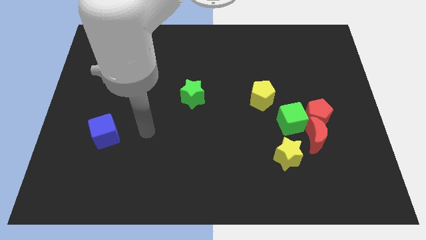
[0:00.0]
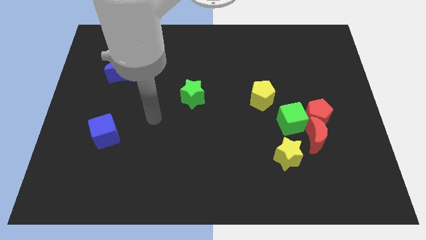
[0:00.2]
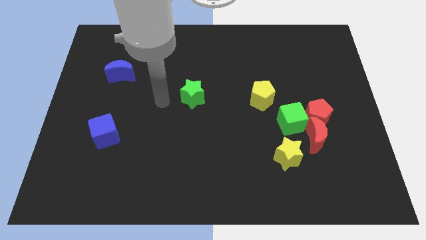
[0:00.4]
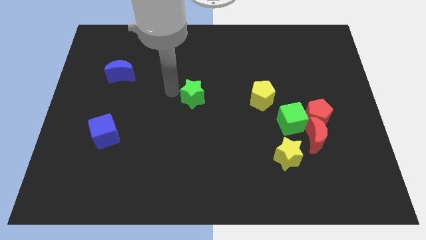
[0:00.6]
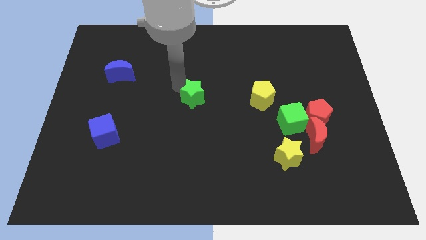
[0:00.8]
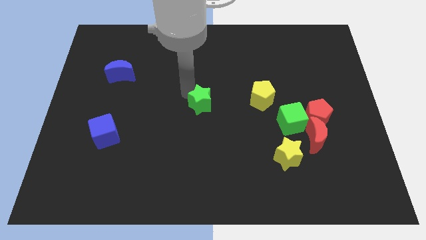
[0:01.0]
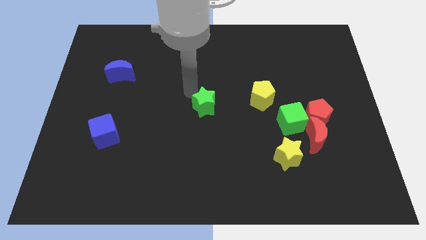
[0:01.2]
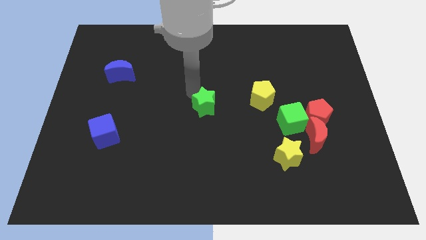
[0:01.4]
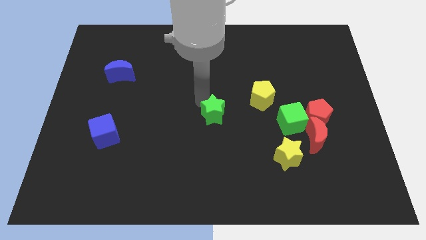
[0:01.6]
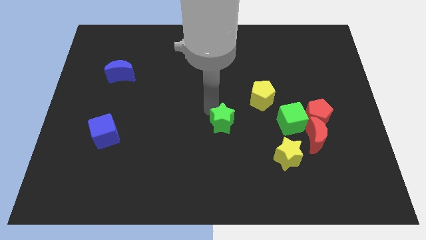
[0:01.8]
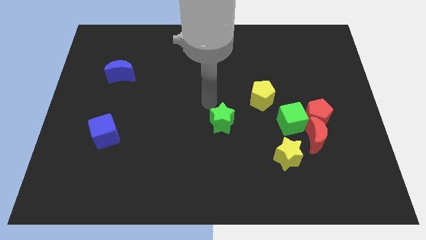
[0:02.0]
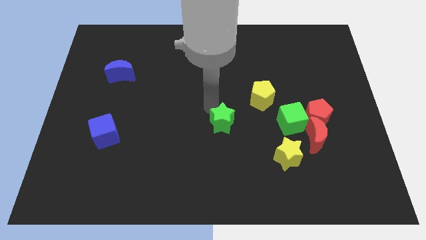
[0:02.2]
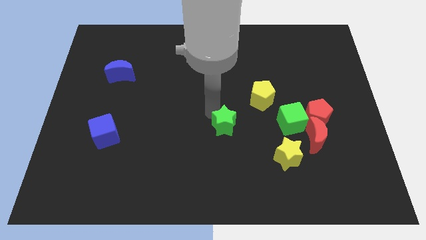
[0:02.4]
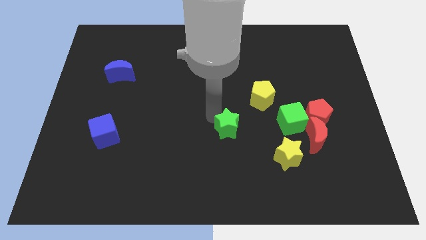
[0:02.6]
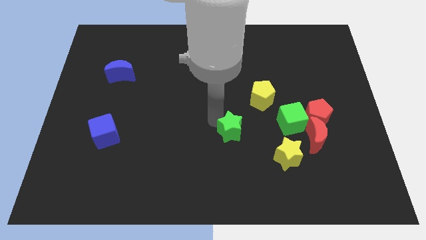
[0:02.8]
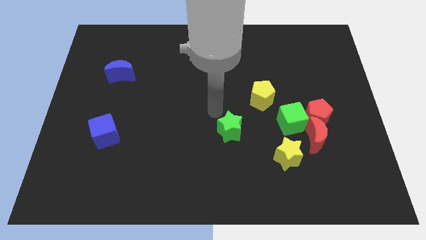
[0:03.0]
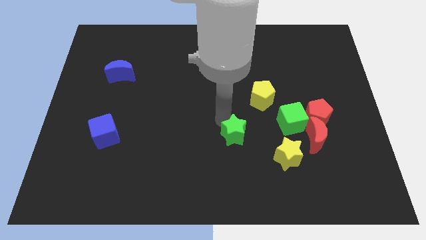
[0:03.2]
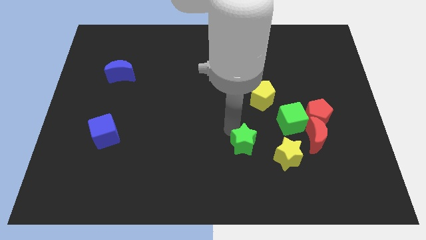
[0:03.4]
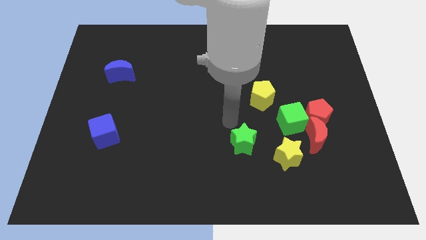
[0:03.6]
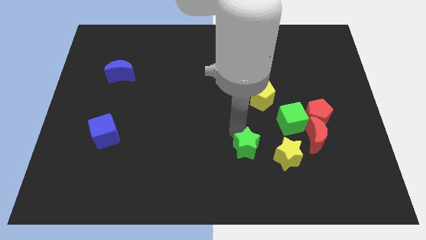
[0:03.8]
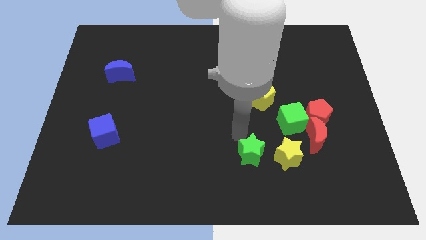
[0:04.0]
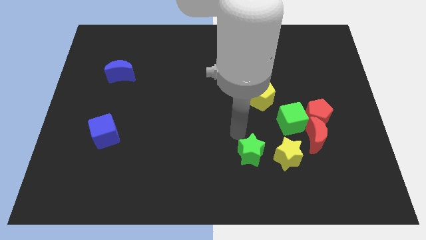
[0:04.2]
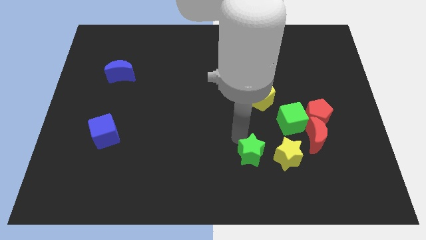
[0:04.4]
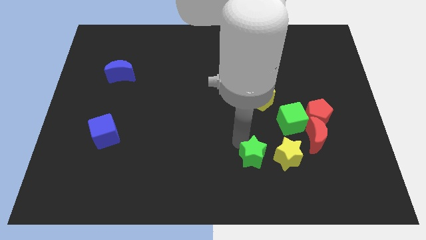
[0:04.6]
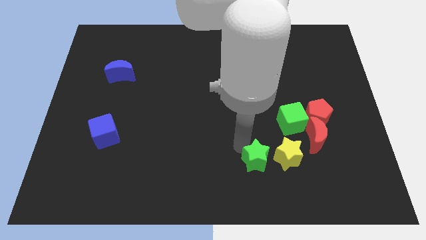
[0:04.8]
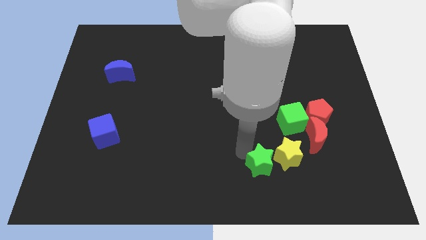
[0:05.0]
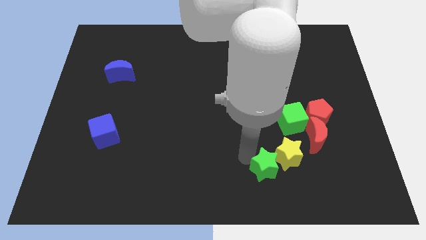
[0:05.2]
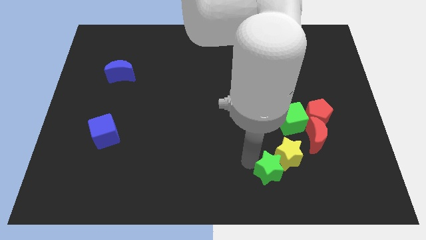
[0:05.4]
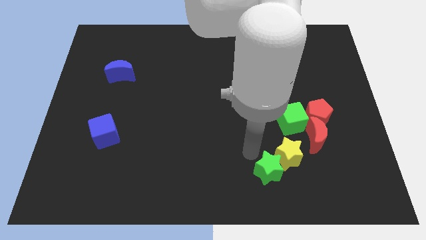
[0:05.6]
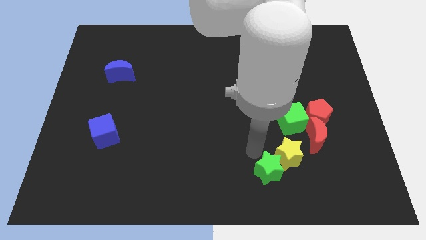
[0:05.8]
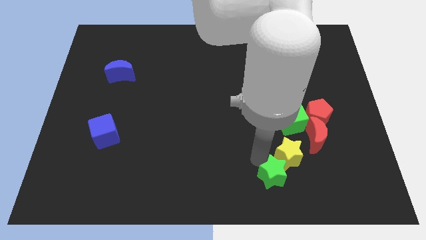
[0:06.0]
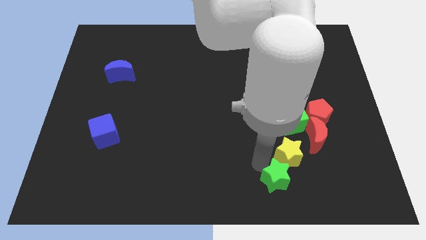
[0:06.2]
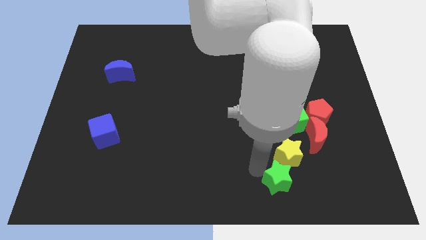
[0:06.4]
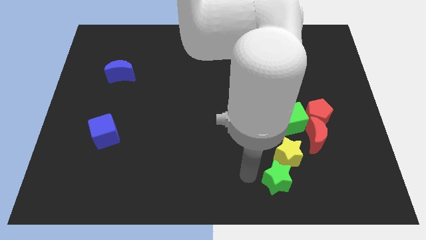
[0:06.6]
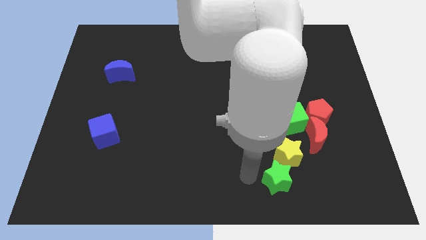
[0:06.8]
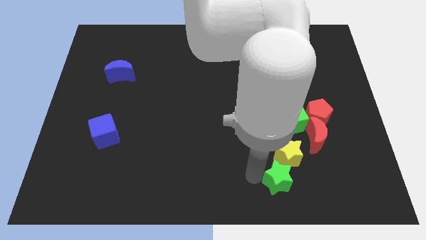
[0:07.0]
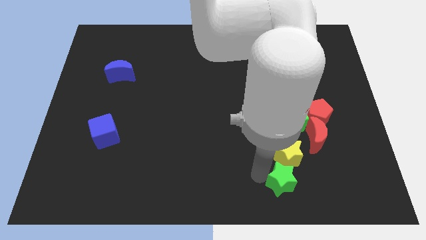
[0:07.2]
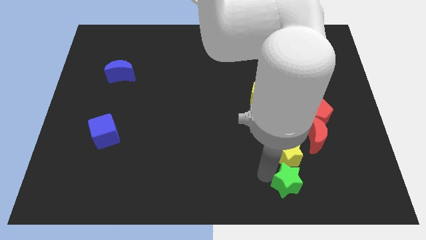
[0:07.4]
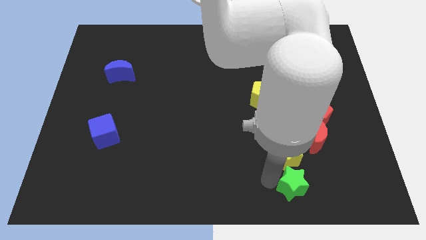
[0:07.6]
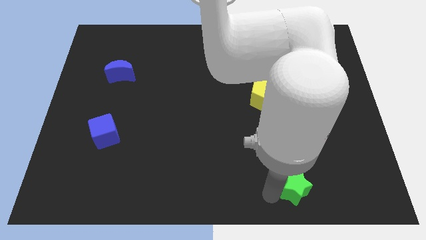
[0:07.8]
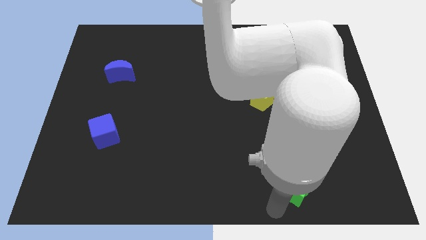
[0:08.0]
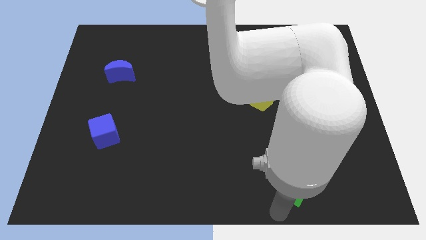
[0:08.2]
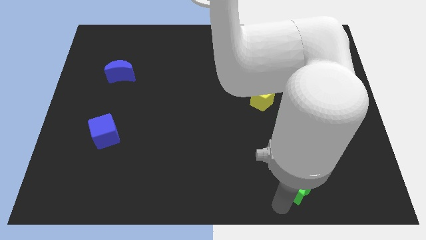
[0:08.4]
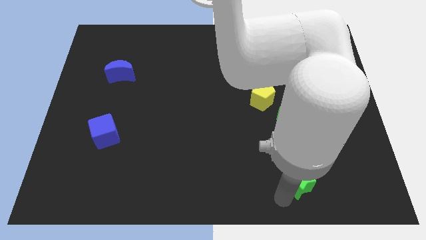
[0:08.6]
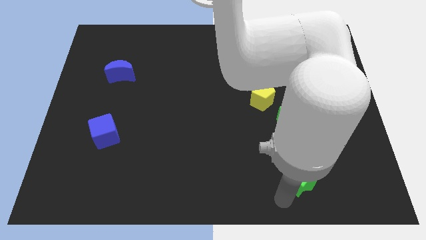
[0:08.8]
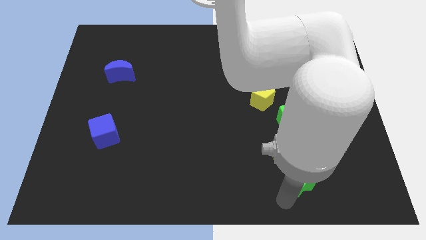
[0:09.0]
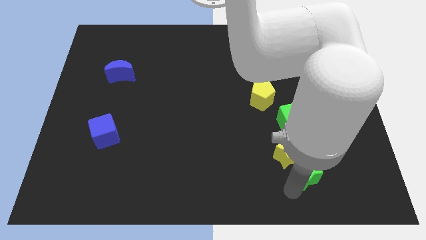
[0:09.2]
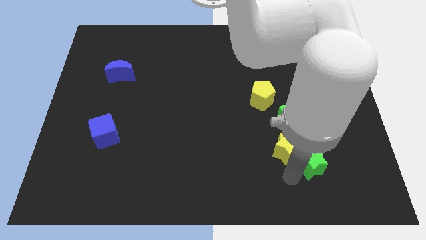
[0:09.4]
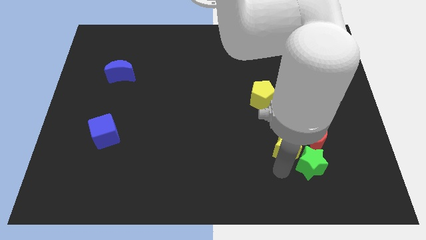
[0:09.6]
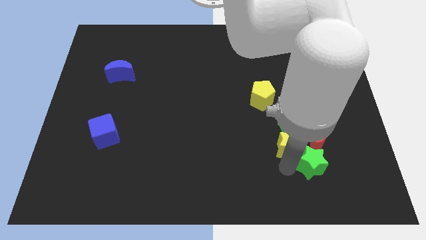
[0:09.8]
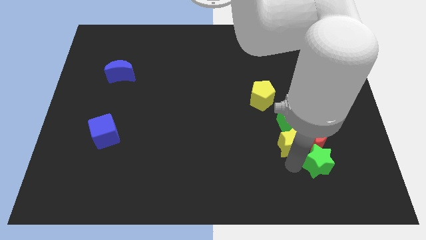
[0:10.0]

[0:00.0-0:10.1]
push the green star to the bottom right of the red moon

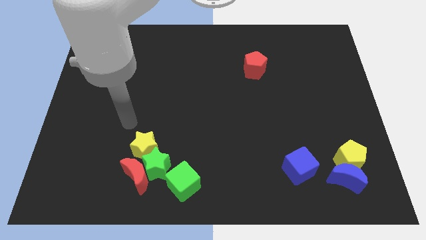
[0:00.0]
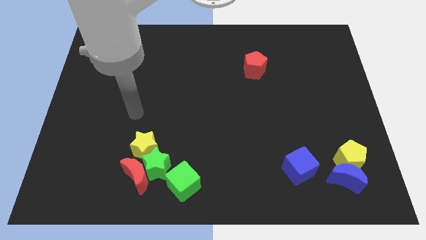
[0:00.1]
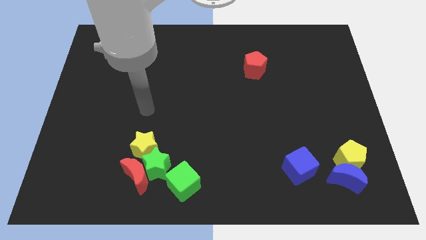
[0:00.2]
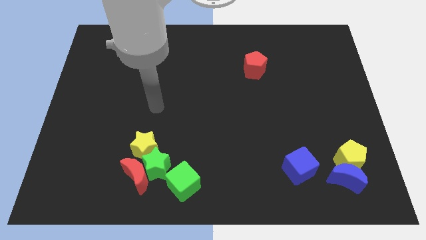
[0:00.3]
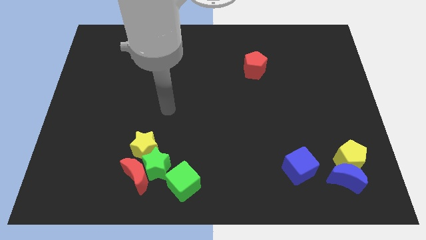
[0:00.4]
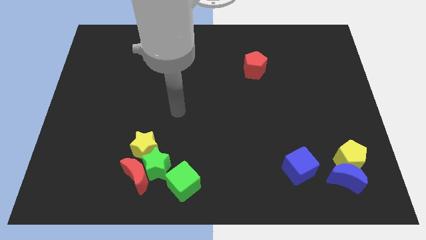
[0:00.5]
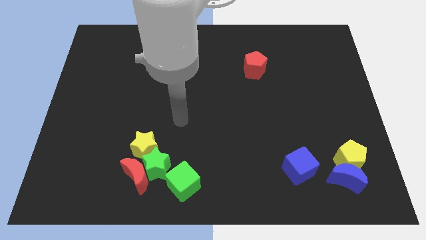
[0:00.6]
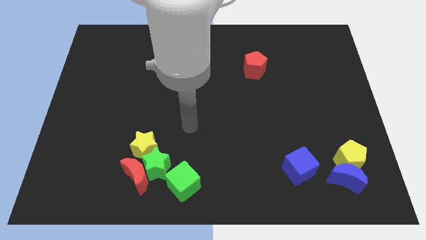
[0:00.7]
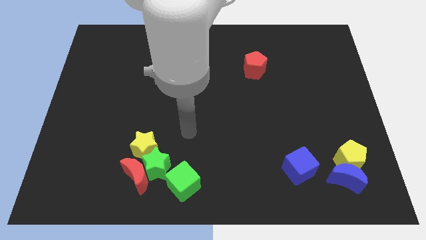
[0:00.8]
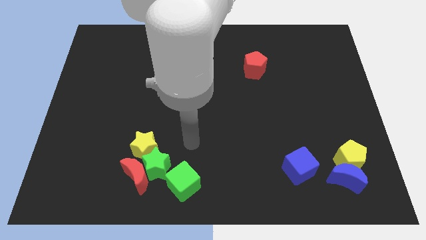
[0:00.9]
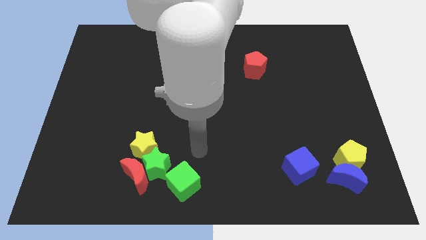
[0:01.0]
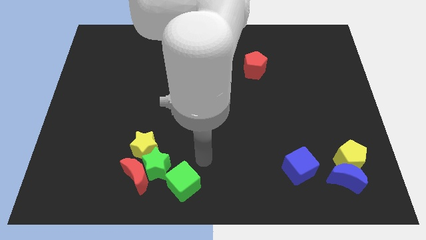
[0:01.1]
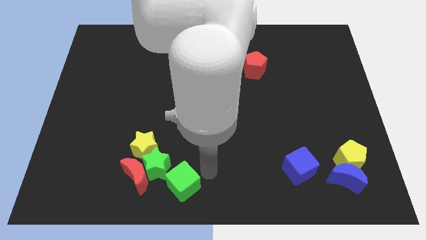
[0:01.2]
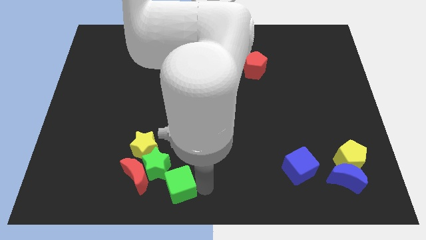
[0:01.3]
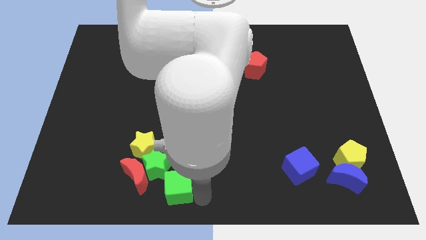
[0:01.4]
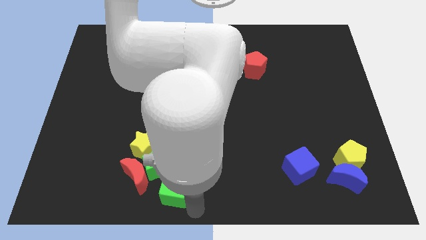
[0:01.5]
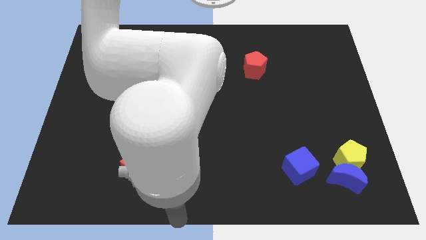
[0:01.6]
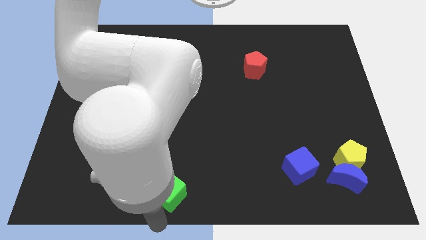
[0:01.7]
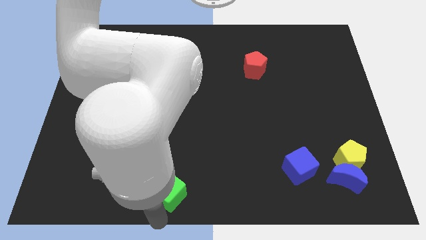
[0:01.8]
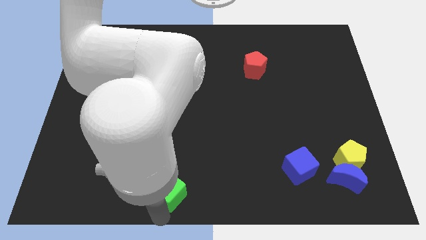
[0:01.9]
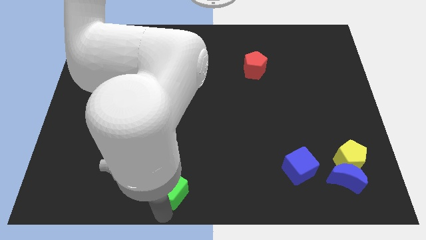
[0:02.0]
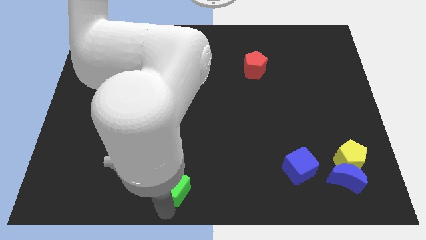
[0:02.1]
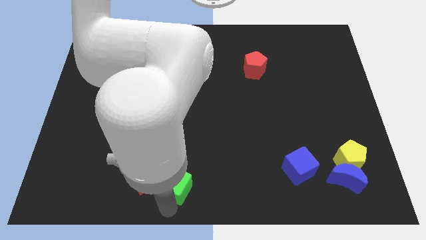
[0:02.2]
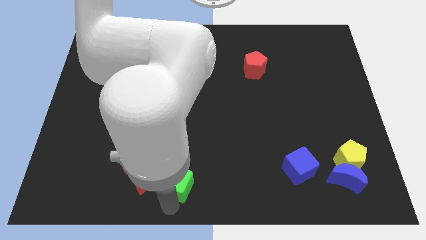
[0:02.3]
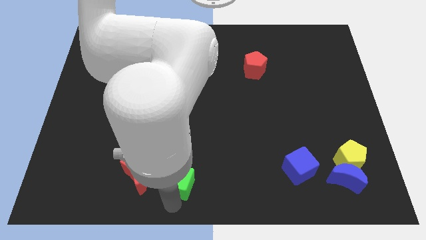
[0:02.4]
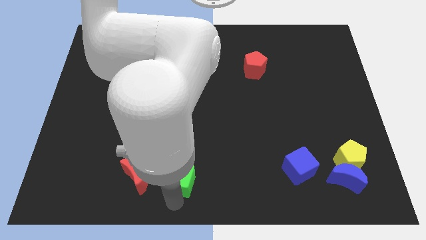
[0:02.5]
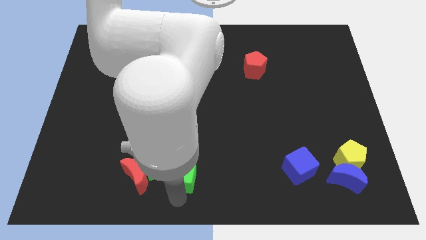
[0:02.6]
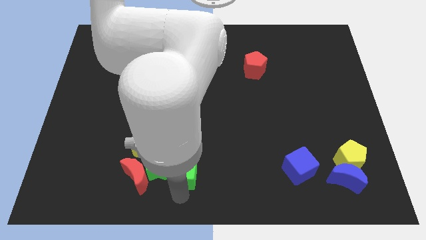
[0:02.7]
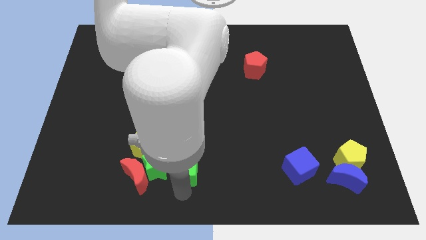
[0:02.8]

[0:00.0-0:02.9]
slide the green cube to the top right side of the green star
